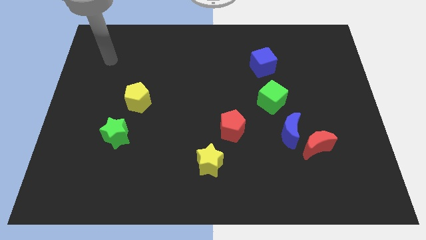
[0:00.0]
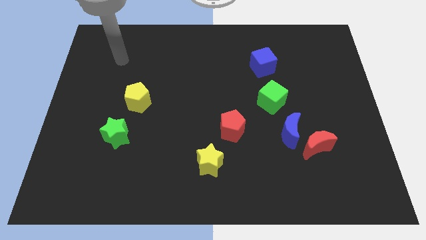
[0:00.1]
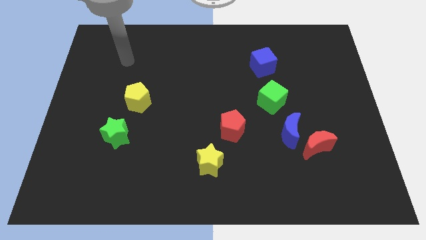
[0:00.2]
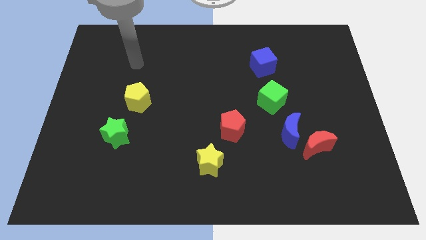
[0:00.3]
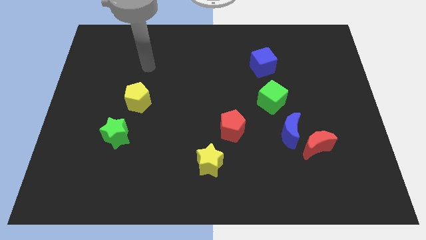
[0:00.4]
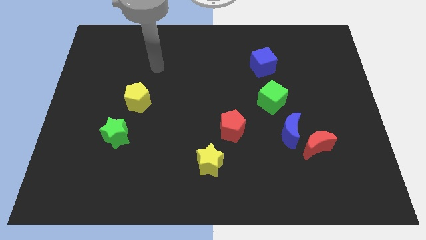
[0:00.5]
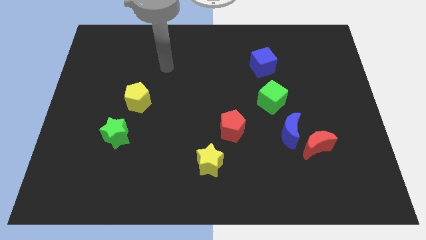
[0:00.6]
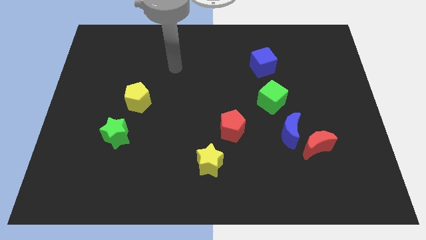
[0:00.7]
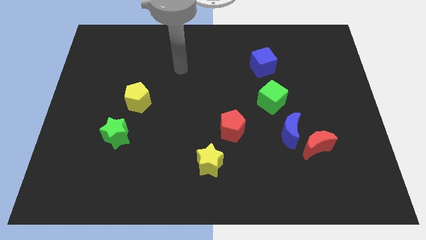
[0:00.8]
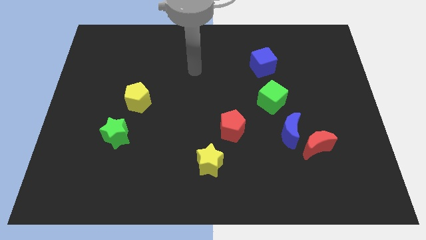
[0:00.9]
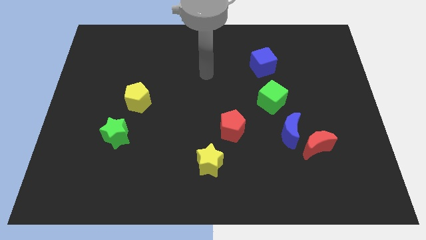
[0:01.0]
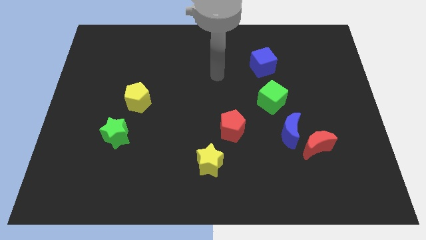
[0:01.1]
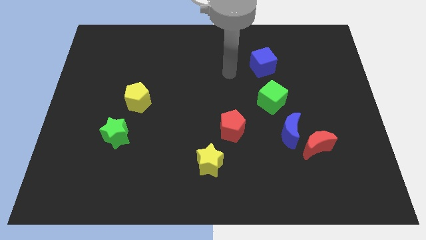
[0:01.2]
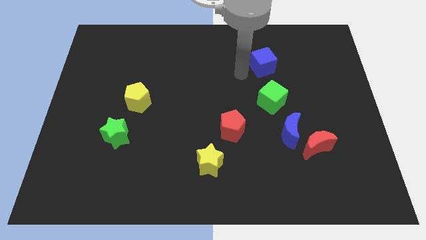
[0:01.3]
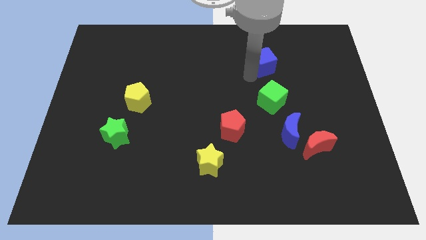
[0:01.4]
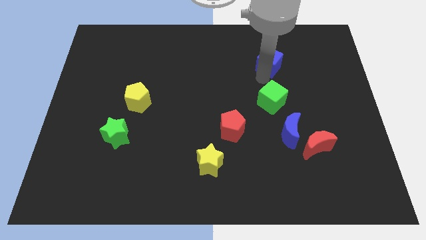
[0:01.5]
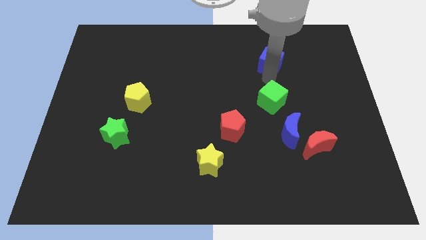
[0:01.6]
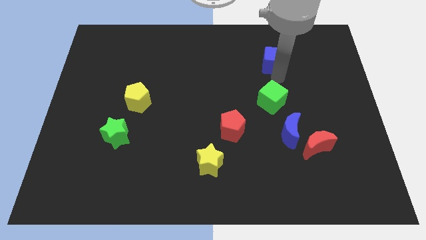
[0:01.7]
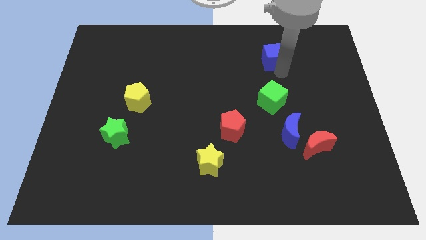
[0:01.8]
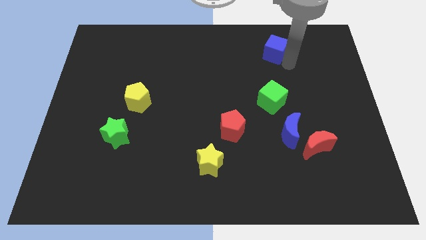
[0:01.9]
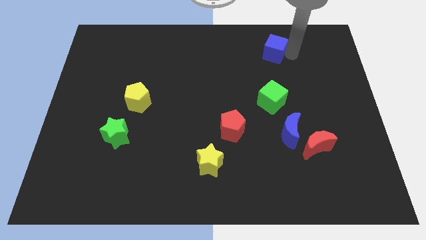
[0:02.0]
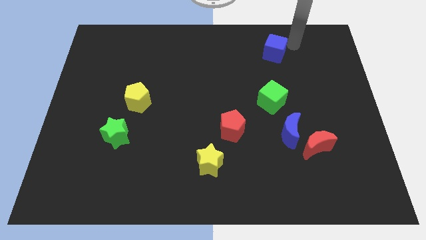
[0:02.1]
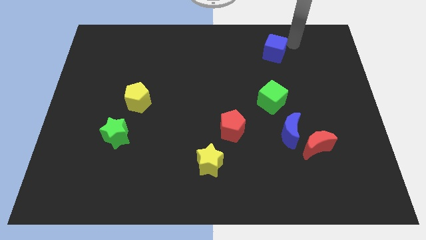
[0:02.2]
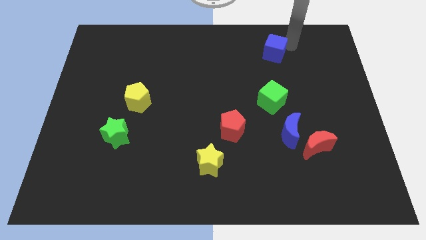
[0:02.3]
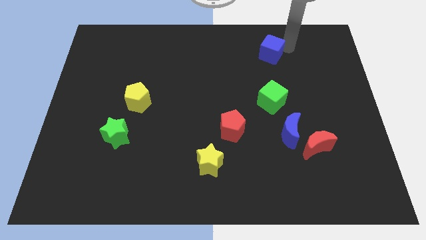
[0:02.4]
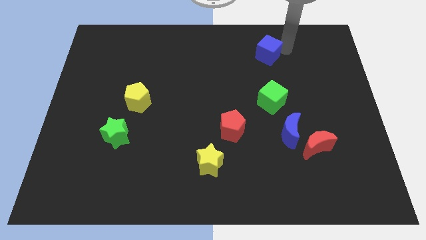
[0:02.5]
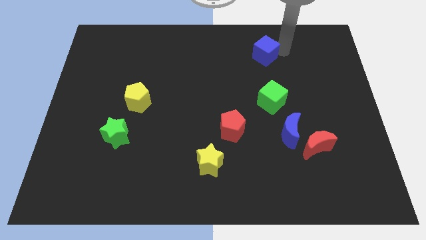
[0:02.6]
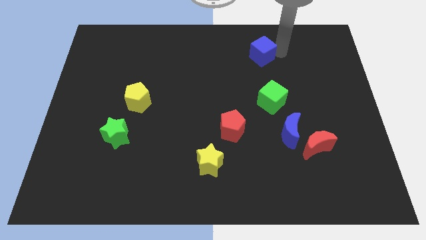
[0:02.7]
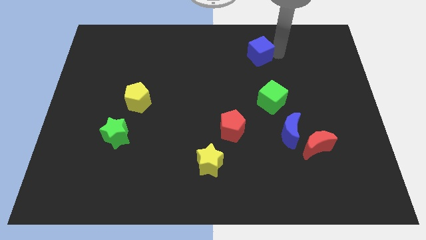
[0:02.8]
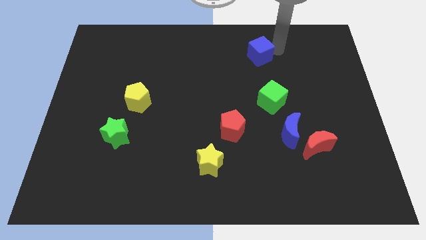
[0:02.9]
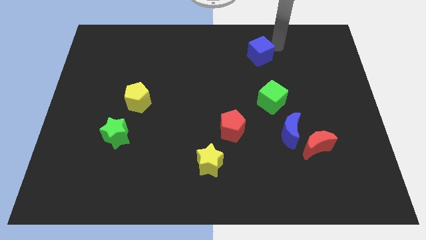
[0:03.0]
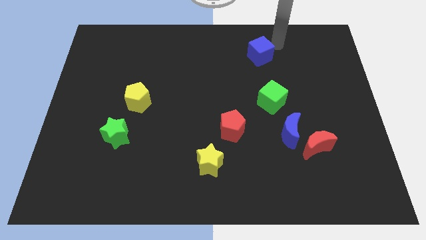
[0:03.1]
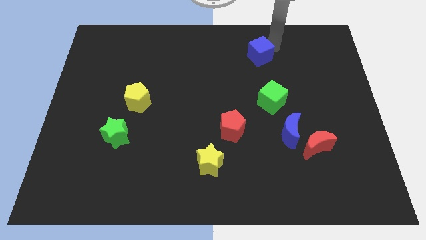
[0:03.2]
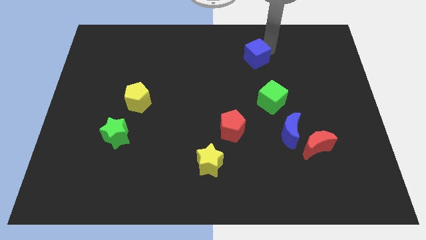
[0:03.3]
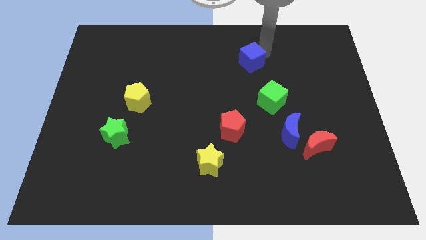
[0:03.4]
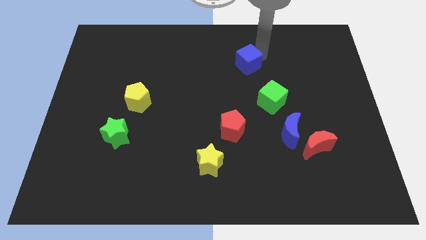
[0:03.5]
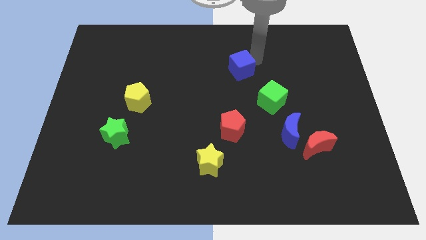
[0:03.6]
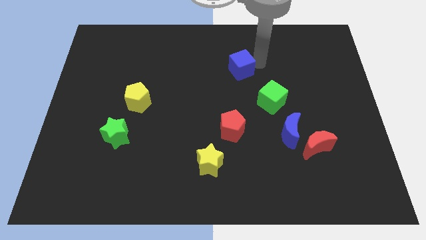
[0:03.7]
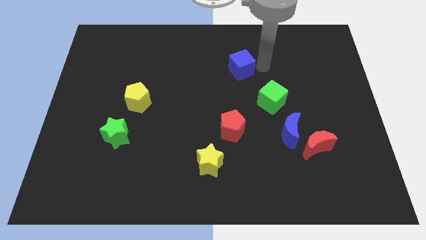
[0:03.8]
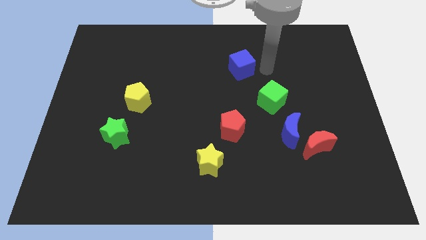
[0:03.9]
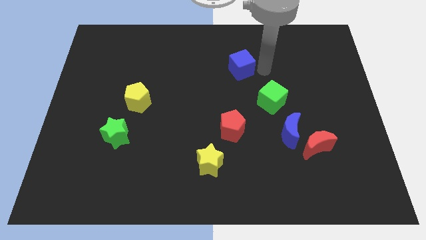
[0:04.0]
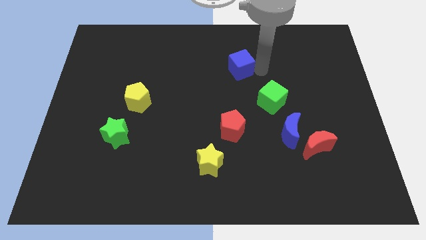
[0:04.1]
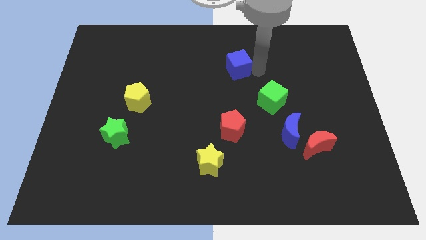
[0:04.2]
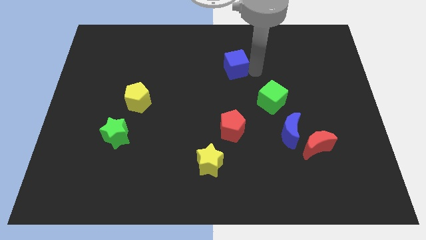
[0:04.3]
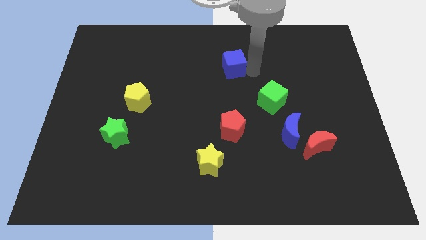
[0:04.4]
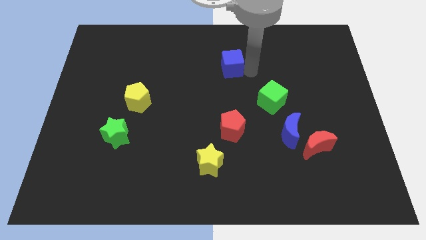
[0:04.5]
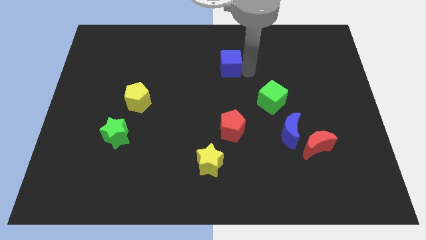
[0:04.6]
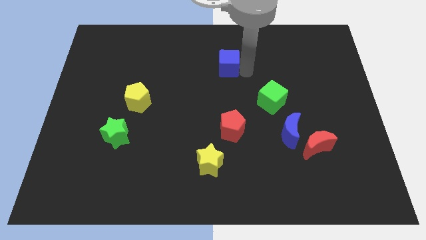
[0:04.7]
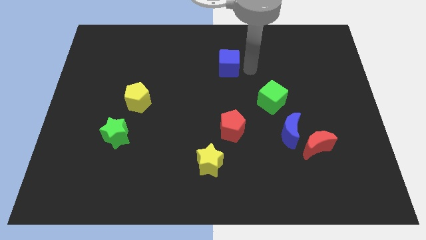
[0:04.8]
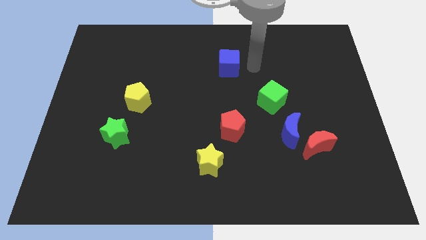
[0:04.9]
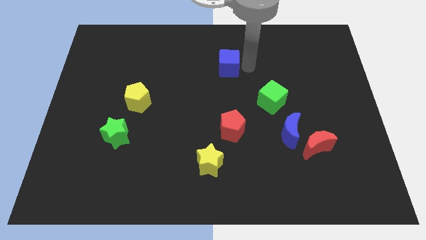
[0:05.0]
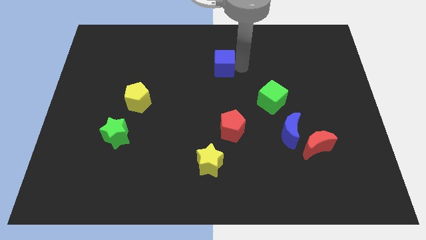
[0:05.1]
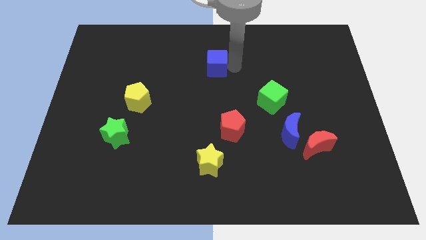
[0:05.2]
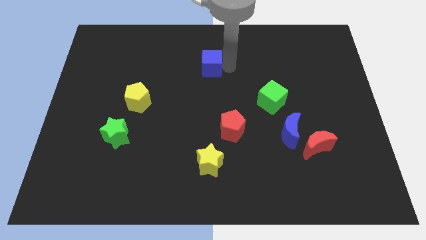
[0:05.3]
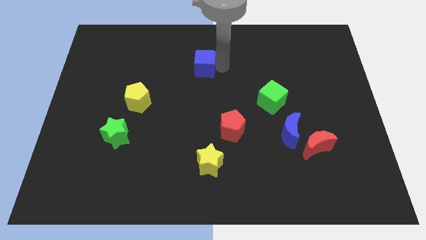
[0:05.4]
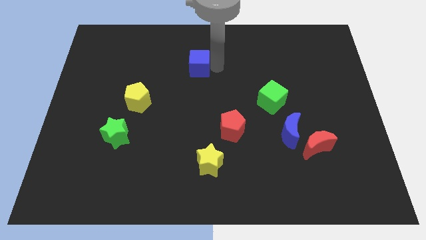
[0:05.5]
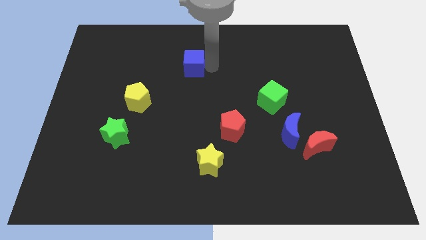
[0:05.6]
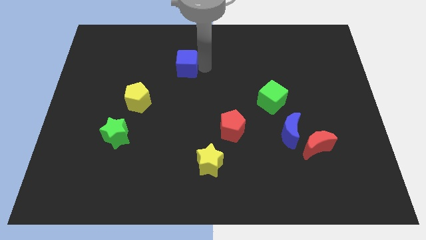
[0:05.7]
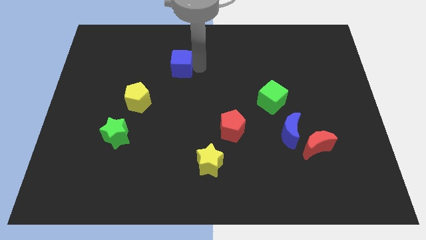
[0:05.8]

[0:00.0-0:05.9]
push the blue cube left

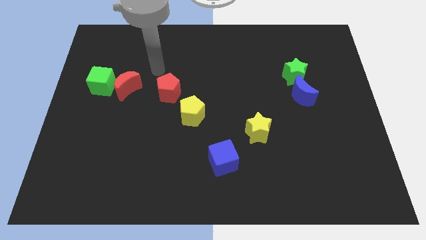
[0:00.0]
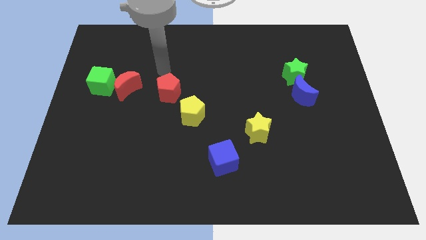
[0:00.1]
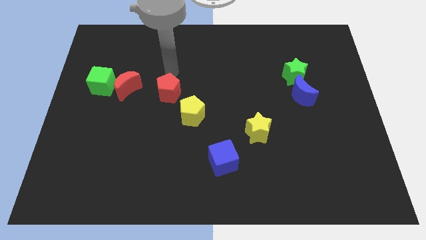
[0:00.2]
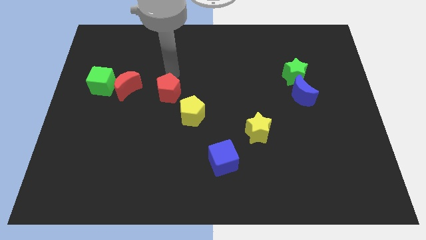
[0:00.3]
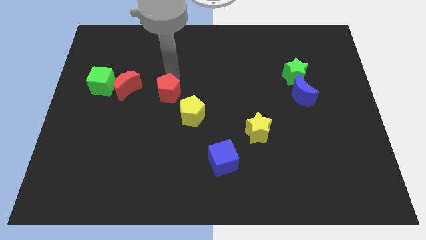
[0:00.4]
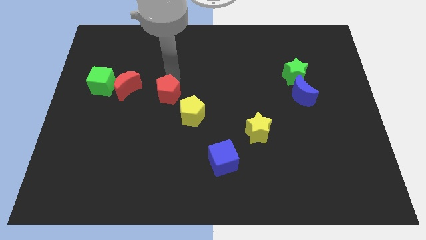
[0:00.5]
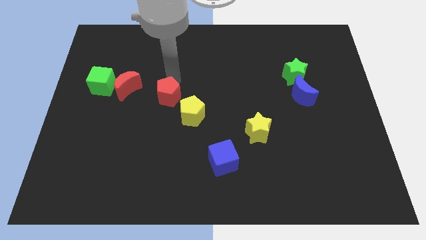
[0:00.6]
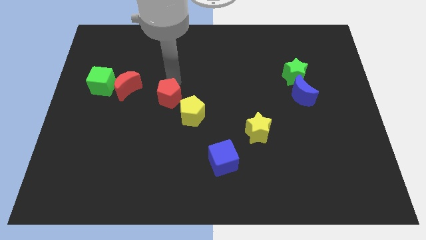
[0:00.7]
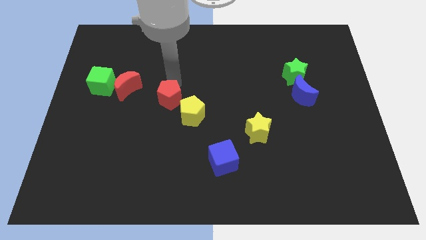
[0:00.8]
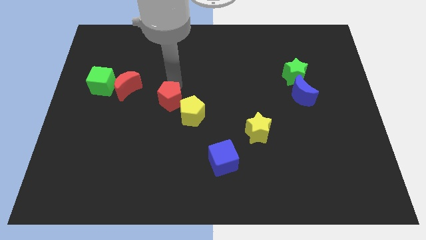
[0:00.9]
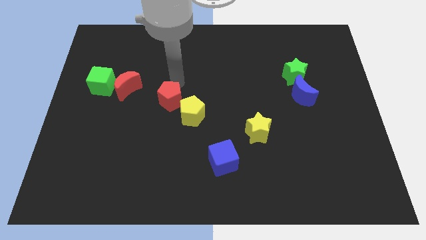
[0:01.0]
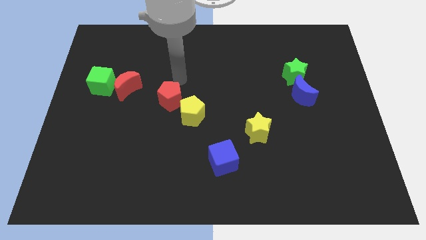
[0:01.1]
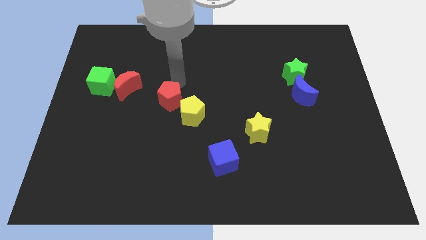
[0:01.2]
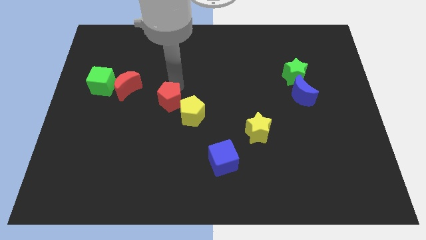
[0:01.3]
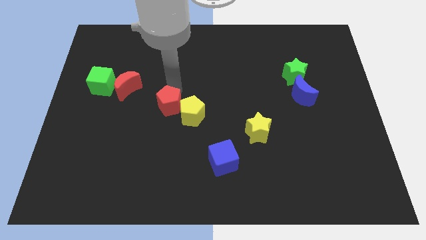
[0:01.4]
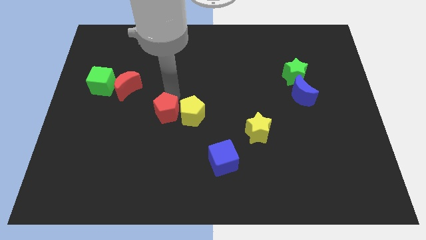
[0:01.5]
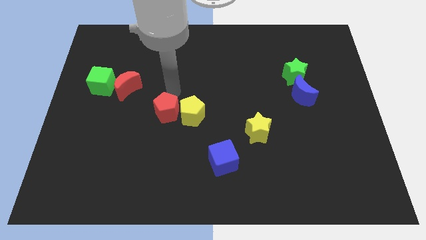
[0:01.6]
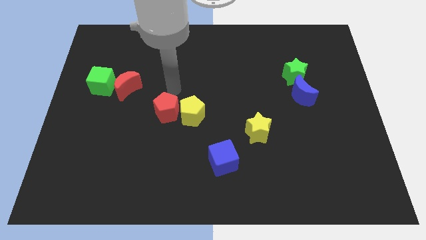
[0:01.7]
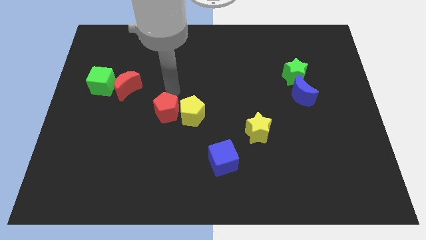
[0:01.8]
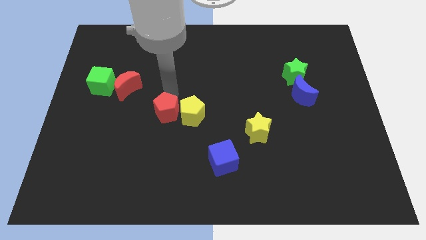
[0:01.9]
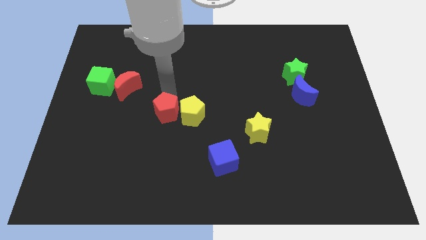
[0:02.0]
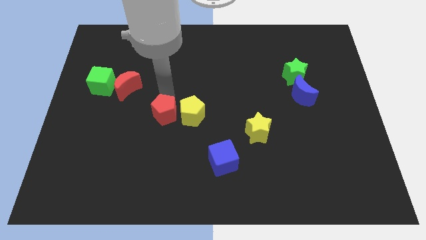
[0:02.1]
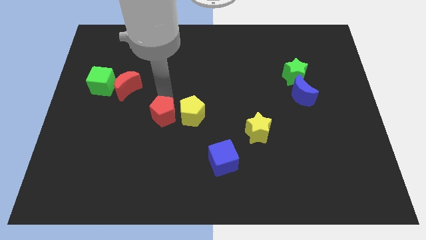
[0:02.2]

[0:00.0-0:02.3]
push the red pentagon downwards a bit
